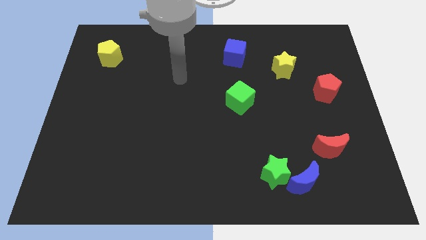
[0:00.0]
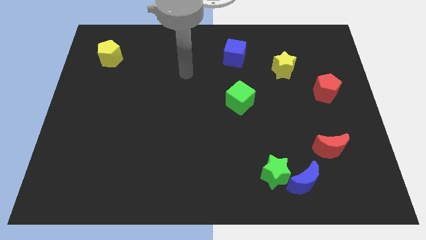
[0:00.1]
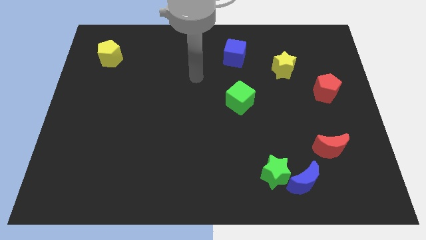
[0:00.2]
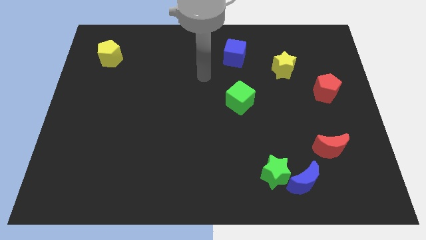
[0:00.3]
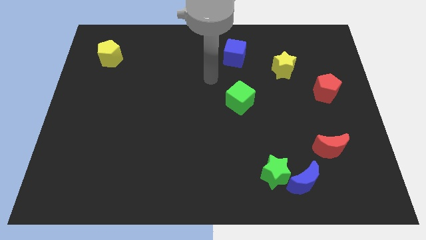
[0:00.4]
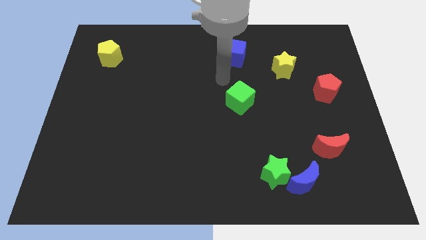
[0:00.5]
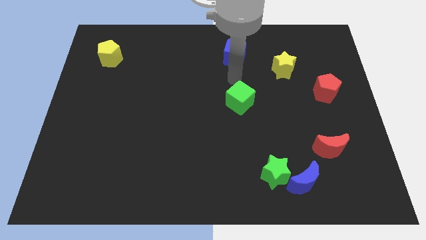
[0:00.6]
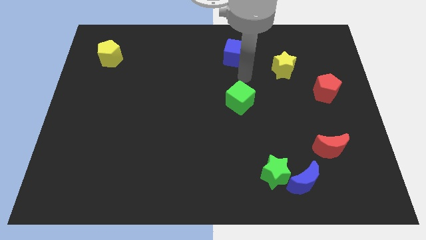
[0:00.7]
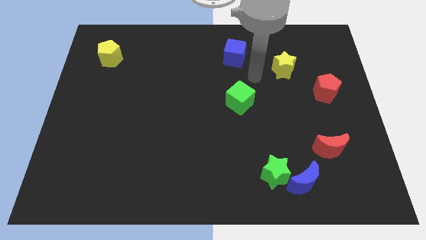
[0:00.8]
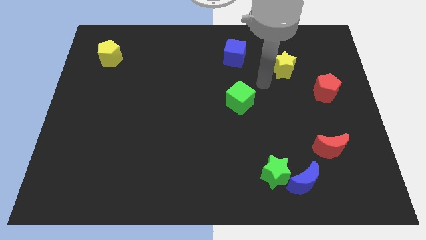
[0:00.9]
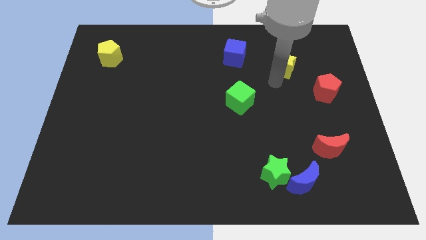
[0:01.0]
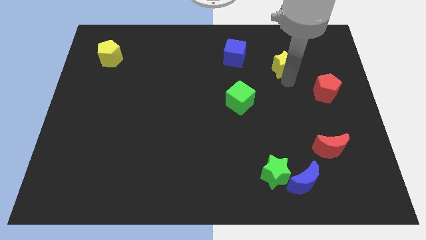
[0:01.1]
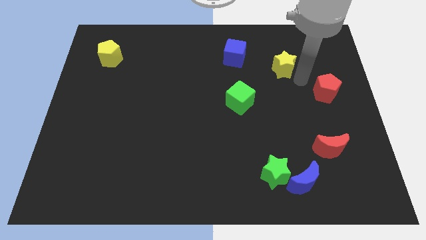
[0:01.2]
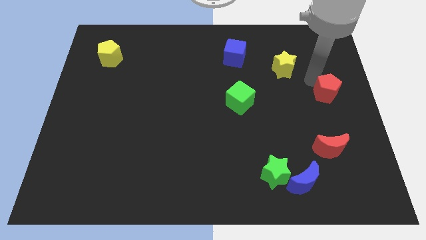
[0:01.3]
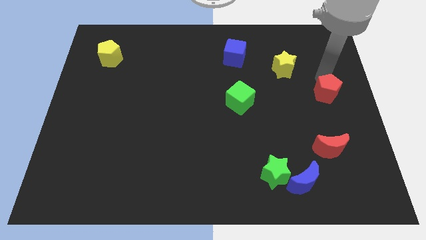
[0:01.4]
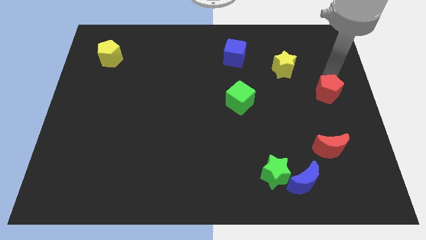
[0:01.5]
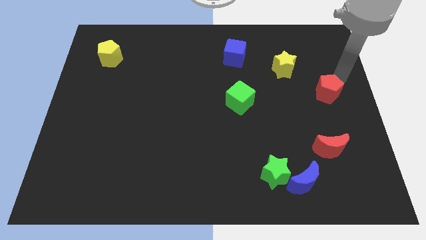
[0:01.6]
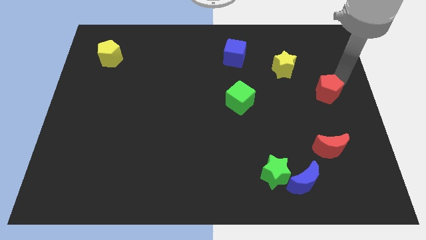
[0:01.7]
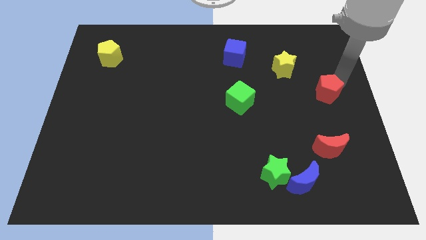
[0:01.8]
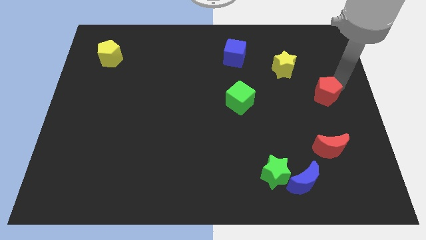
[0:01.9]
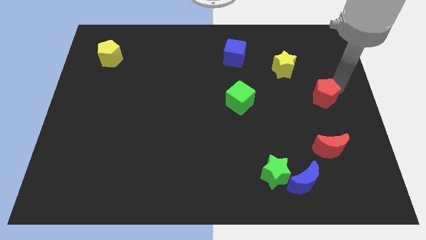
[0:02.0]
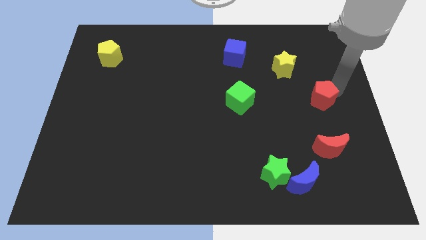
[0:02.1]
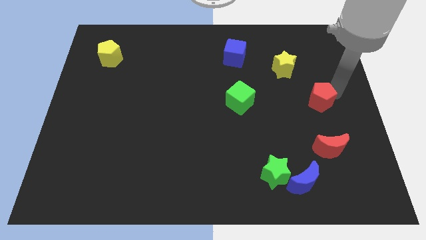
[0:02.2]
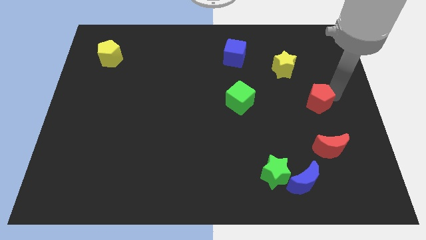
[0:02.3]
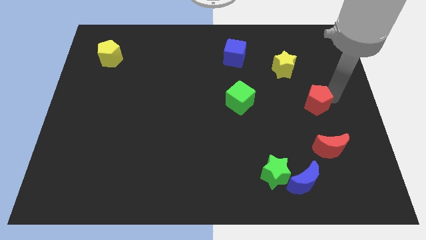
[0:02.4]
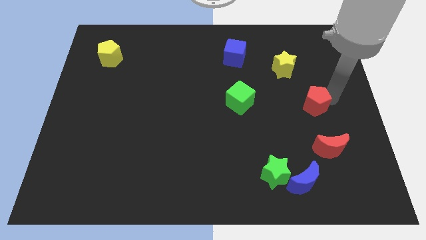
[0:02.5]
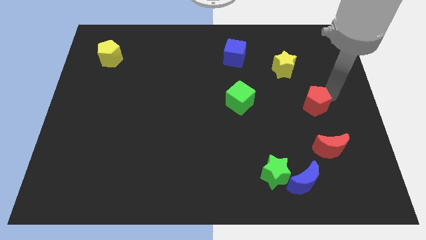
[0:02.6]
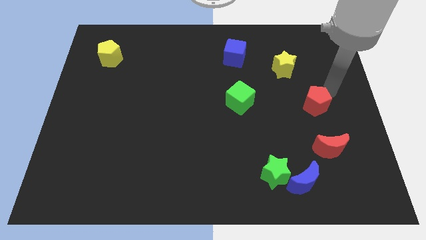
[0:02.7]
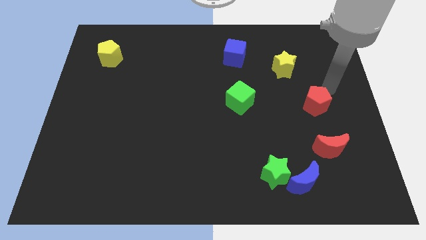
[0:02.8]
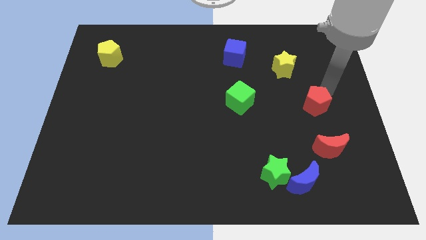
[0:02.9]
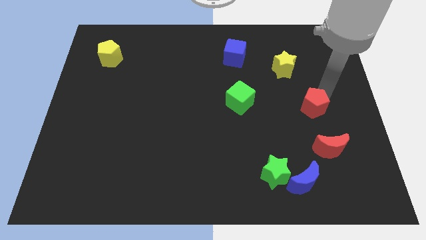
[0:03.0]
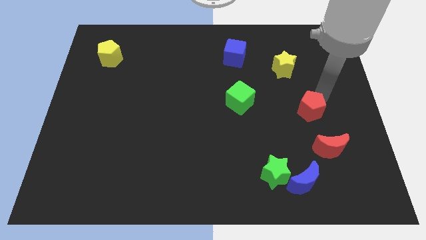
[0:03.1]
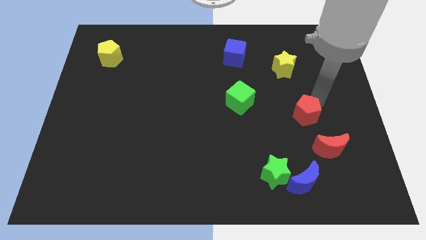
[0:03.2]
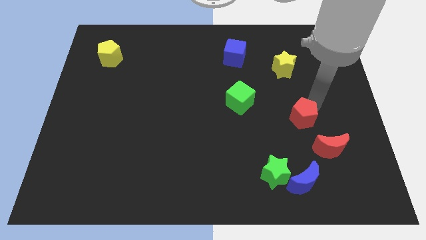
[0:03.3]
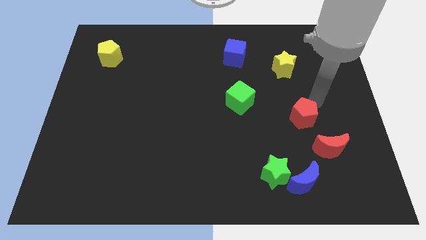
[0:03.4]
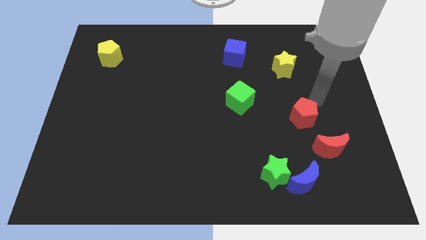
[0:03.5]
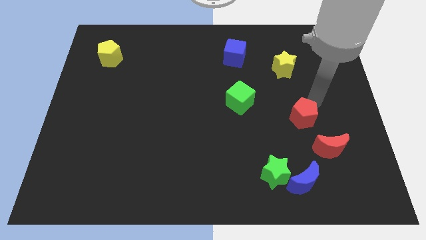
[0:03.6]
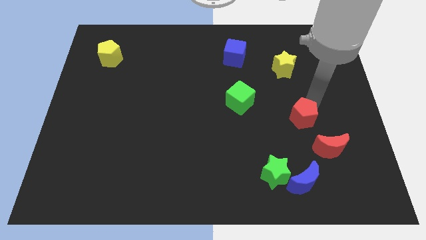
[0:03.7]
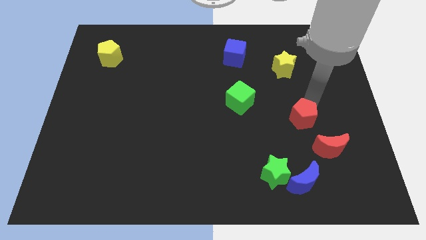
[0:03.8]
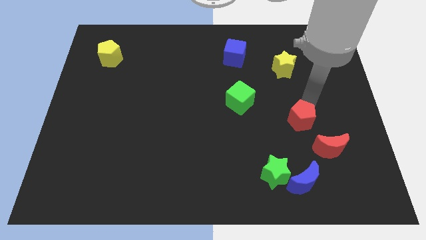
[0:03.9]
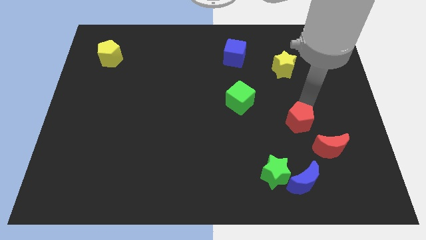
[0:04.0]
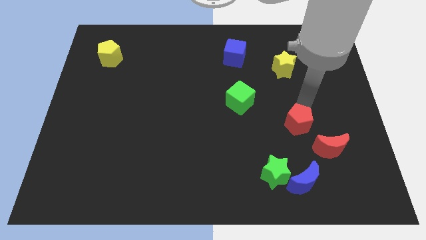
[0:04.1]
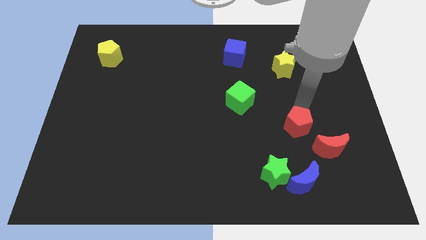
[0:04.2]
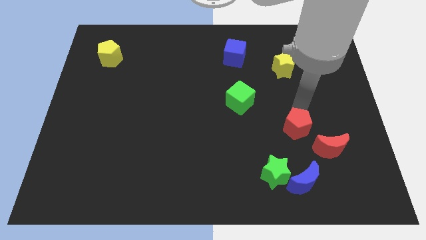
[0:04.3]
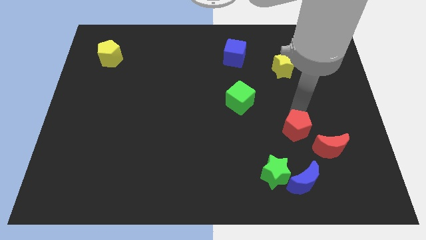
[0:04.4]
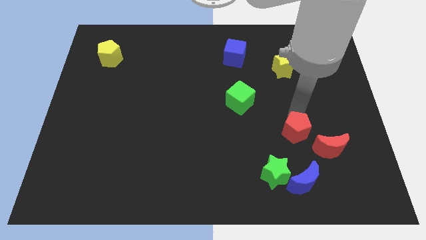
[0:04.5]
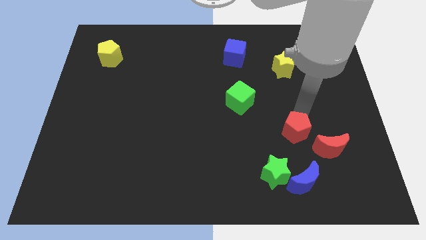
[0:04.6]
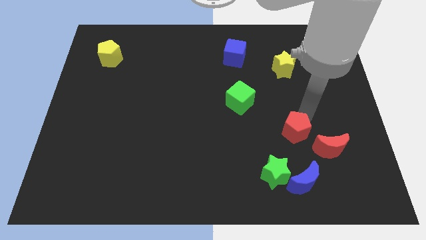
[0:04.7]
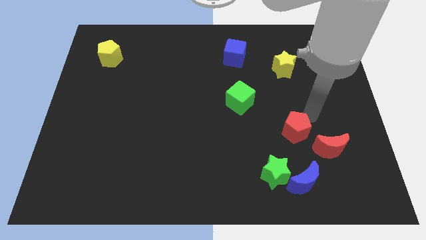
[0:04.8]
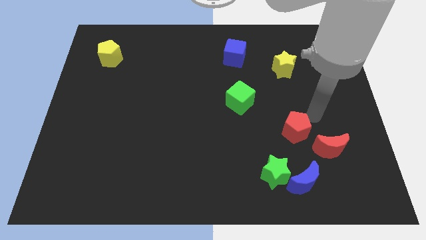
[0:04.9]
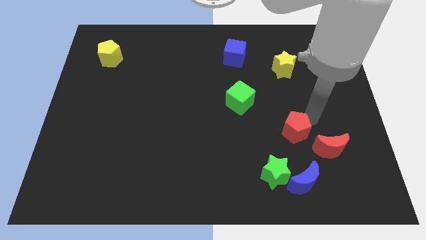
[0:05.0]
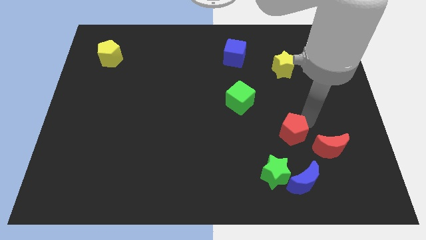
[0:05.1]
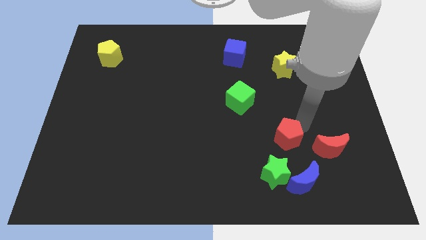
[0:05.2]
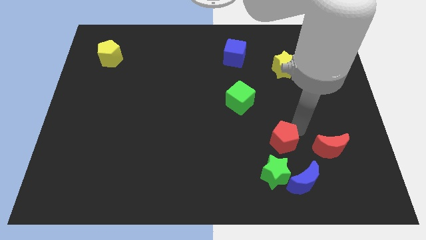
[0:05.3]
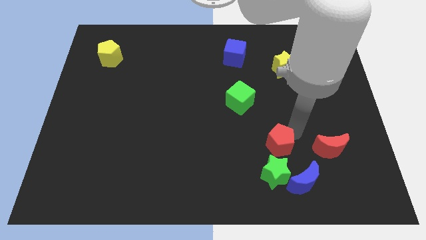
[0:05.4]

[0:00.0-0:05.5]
slide the red pentagon down and then to the left

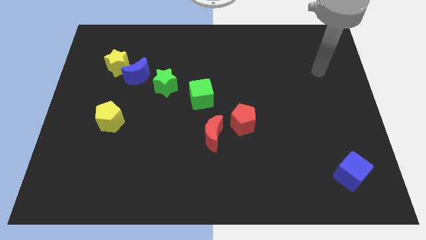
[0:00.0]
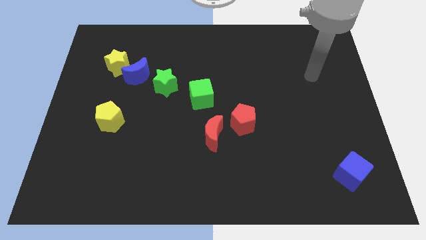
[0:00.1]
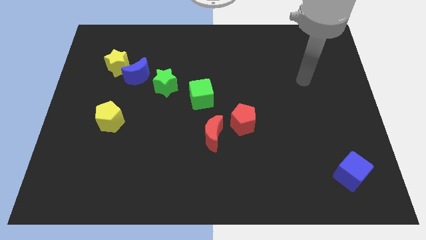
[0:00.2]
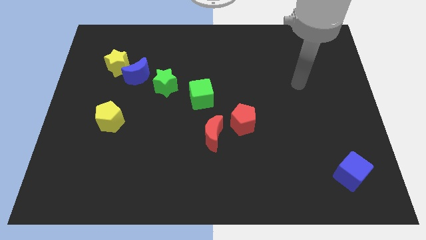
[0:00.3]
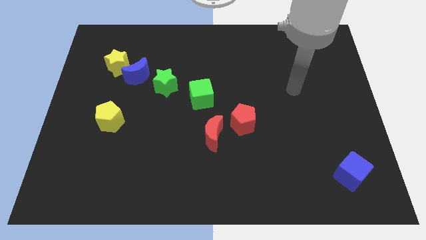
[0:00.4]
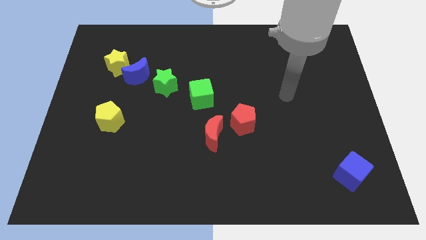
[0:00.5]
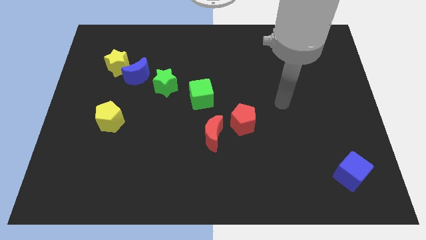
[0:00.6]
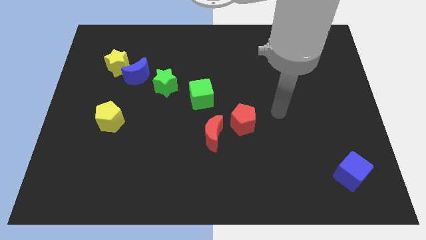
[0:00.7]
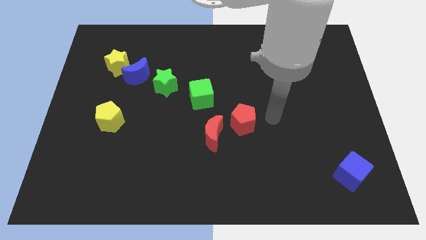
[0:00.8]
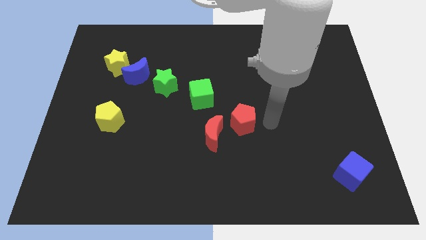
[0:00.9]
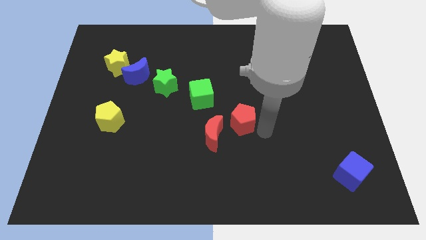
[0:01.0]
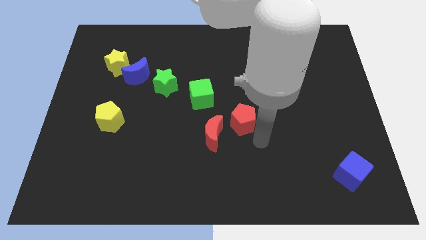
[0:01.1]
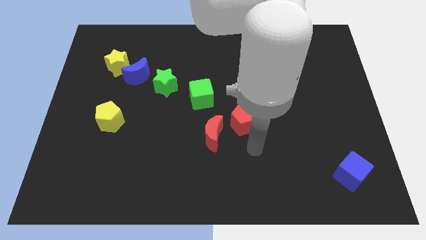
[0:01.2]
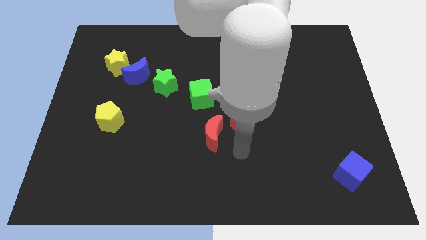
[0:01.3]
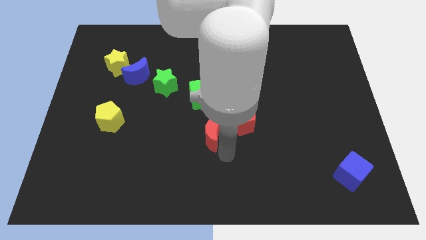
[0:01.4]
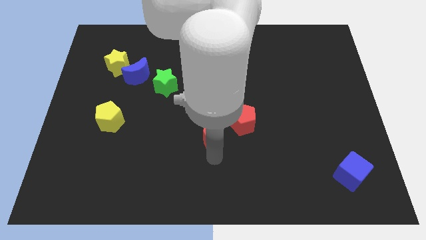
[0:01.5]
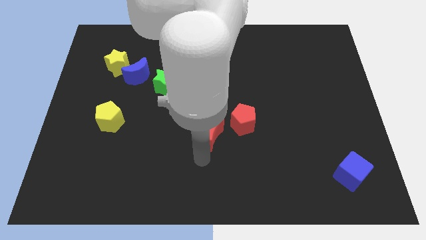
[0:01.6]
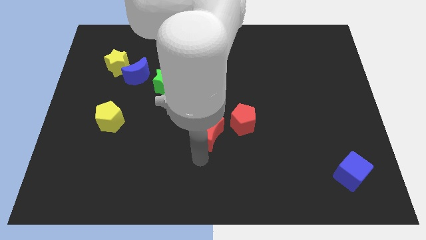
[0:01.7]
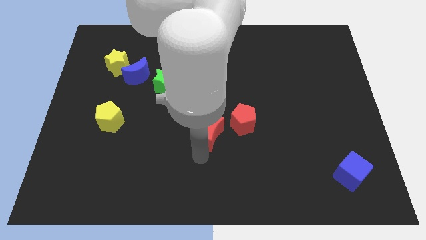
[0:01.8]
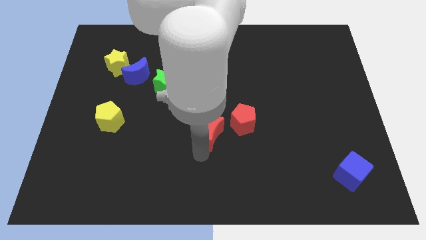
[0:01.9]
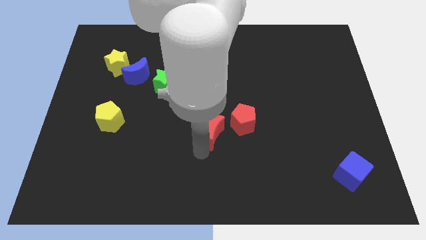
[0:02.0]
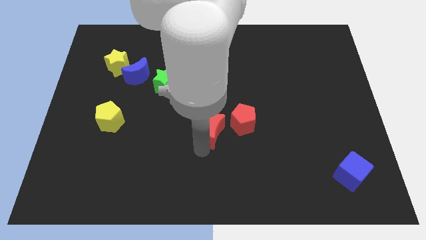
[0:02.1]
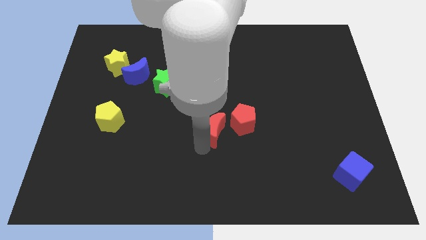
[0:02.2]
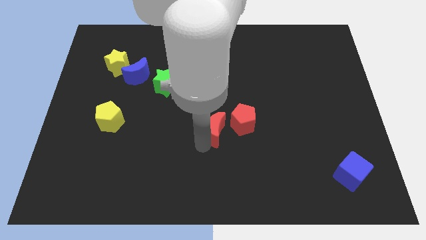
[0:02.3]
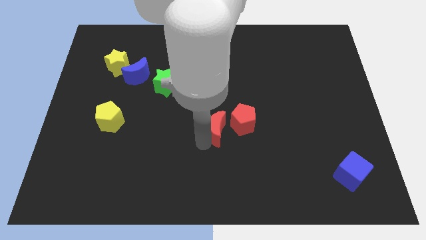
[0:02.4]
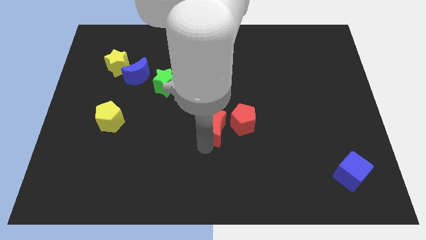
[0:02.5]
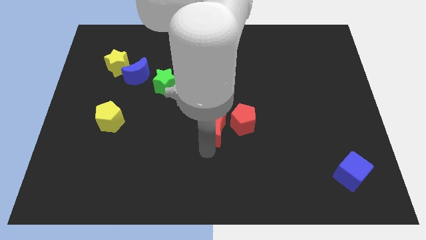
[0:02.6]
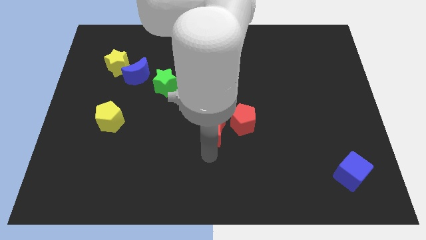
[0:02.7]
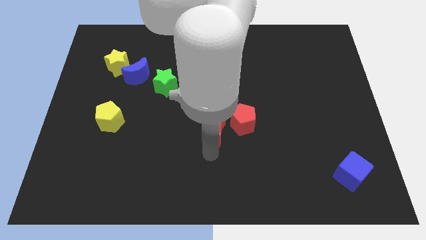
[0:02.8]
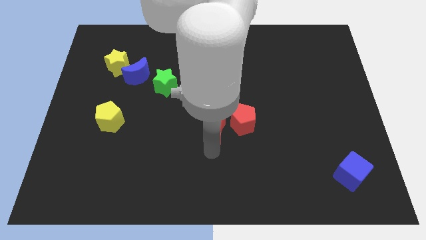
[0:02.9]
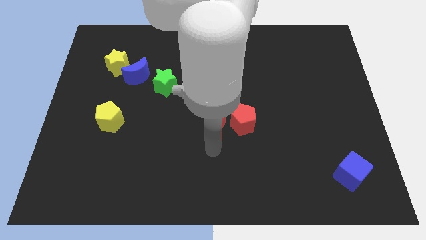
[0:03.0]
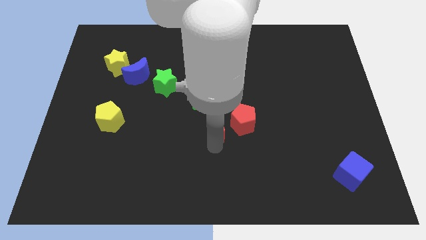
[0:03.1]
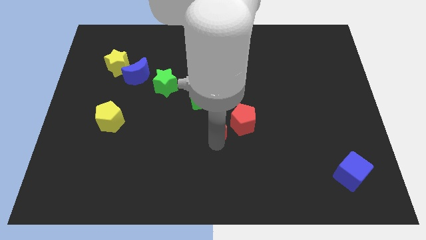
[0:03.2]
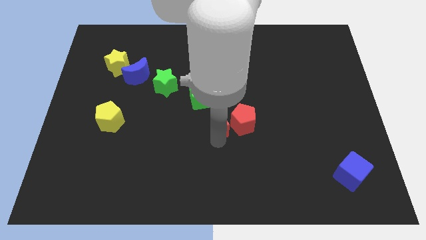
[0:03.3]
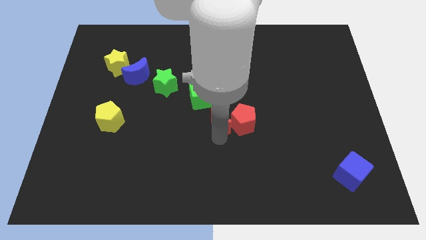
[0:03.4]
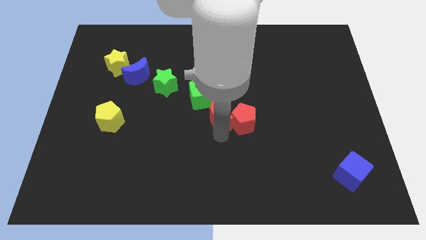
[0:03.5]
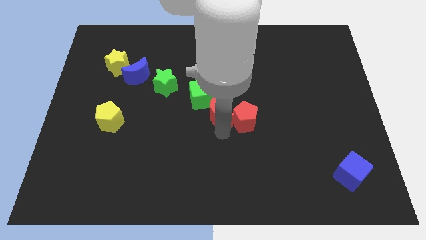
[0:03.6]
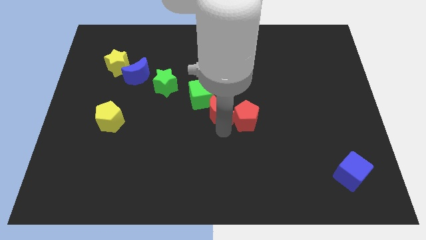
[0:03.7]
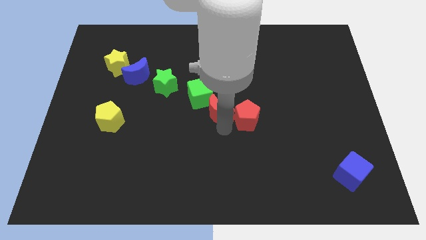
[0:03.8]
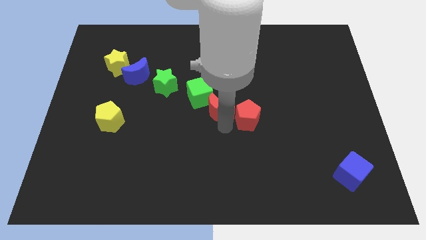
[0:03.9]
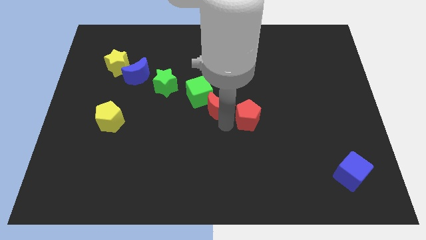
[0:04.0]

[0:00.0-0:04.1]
push the red moon a little bit up
